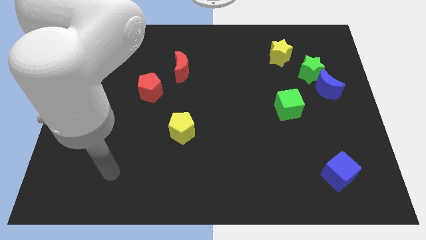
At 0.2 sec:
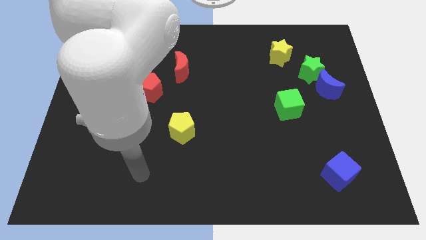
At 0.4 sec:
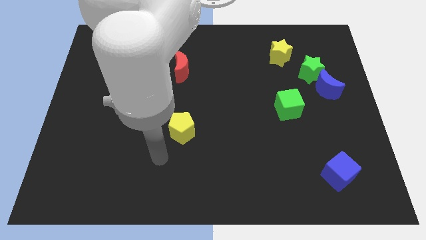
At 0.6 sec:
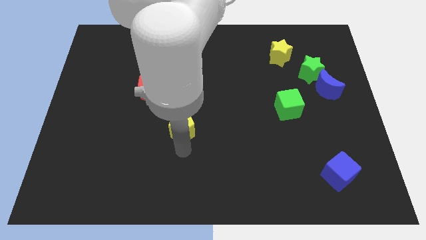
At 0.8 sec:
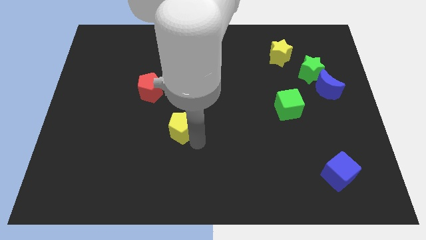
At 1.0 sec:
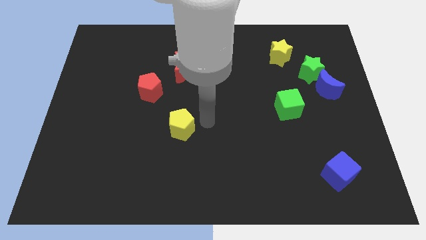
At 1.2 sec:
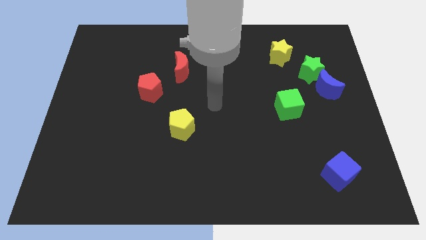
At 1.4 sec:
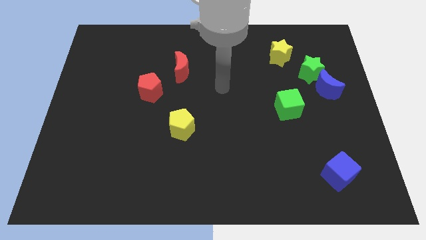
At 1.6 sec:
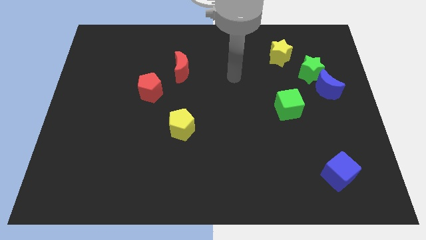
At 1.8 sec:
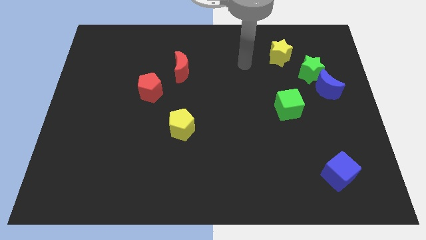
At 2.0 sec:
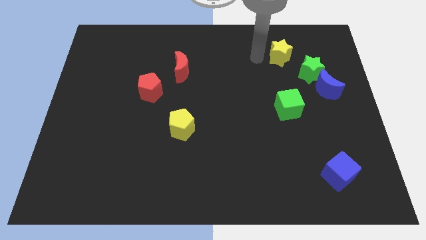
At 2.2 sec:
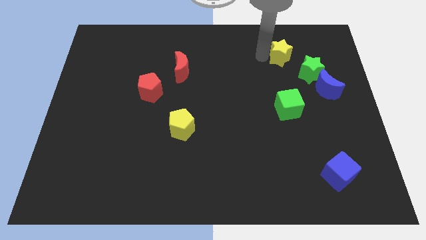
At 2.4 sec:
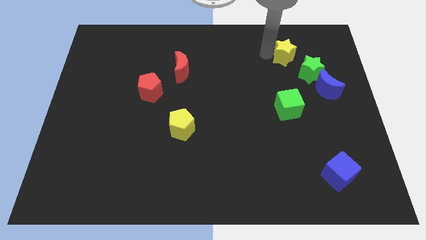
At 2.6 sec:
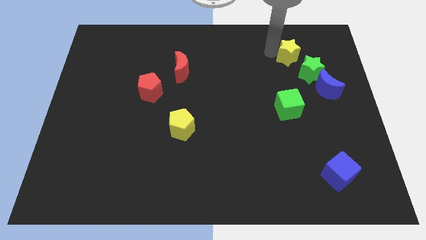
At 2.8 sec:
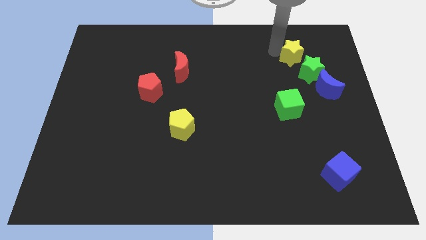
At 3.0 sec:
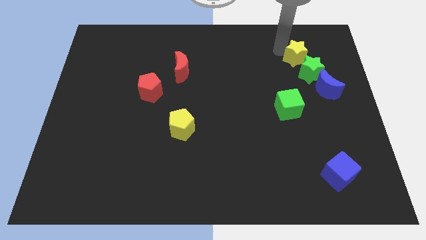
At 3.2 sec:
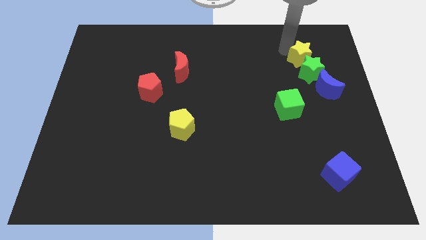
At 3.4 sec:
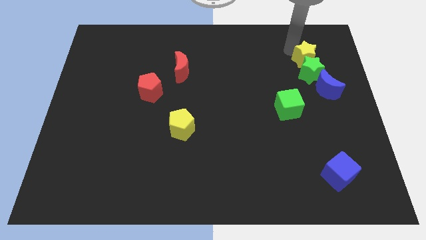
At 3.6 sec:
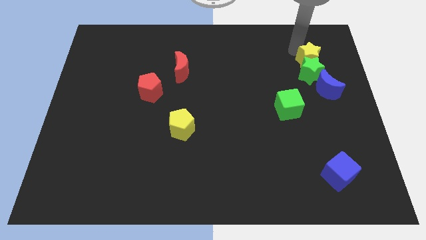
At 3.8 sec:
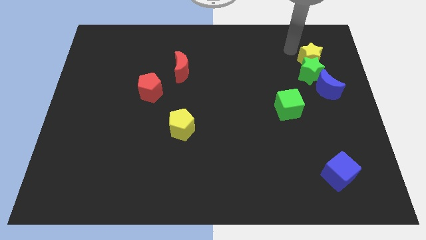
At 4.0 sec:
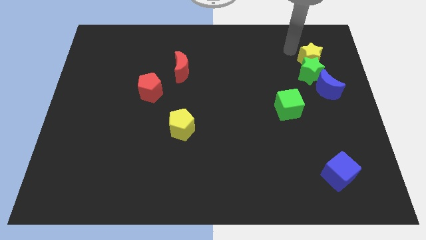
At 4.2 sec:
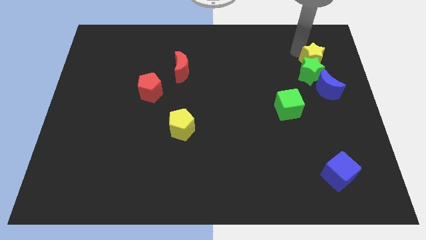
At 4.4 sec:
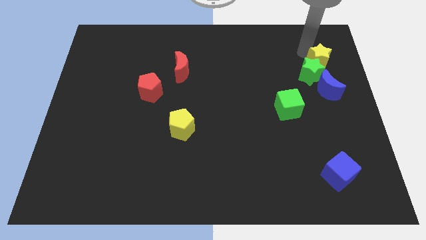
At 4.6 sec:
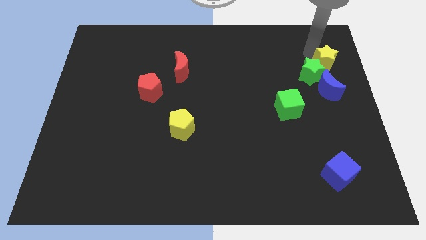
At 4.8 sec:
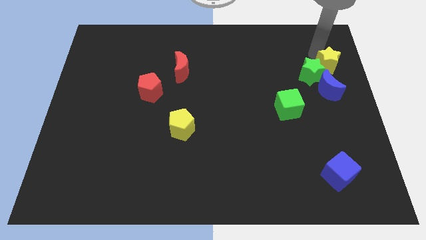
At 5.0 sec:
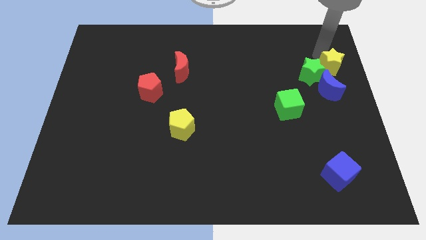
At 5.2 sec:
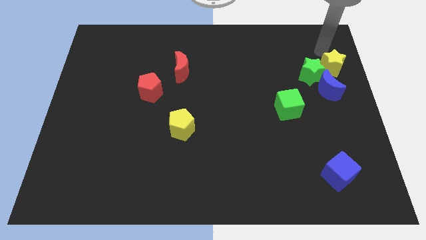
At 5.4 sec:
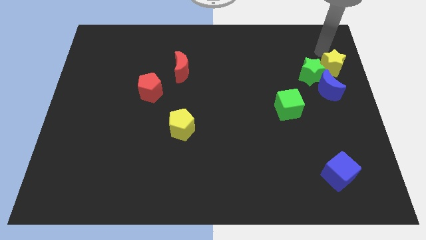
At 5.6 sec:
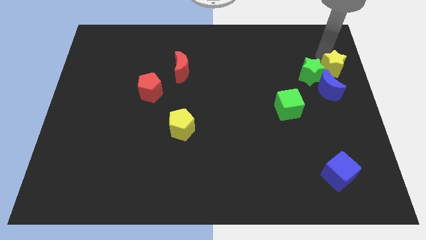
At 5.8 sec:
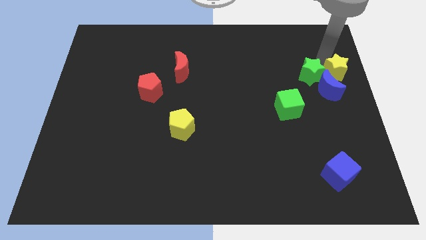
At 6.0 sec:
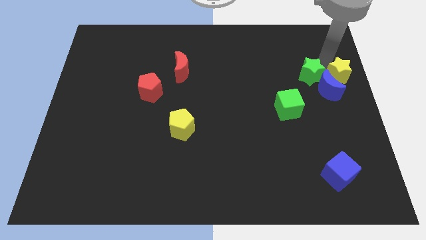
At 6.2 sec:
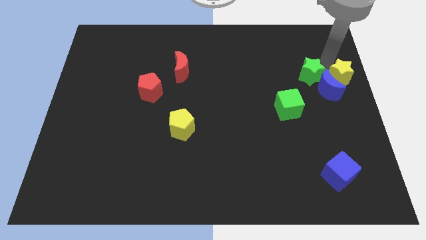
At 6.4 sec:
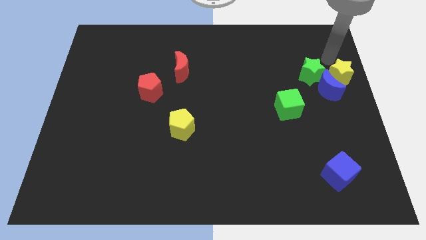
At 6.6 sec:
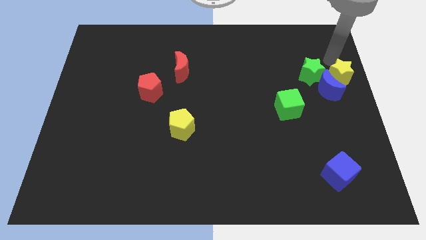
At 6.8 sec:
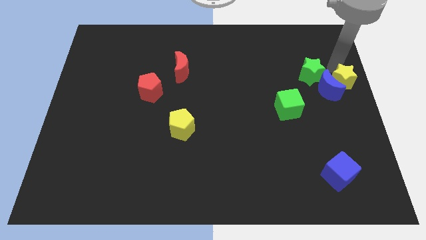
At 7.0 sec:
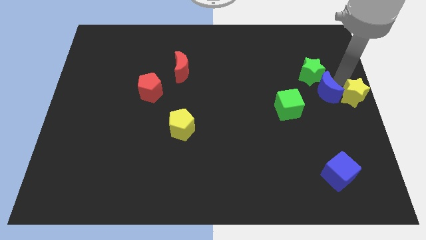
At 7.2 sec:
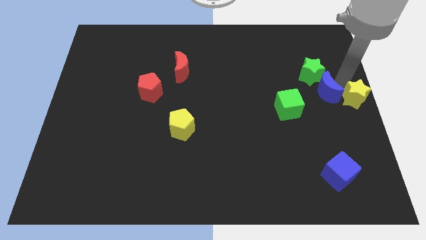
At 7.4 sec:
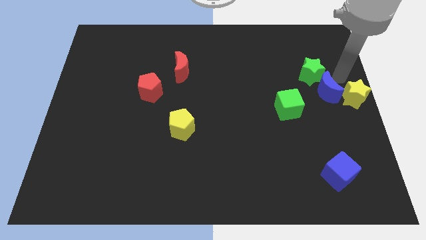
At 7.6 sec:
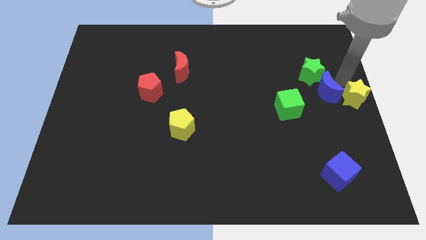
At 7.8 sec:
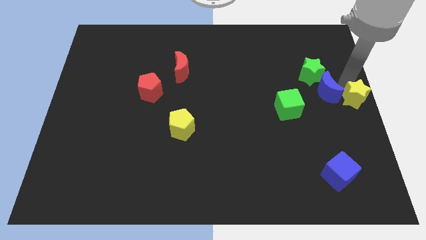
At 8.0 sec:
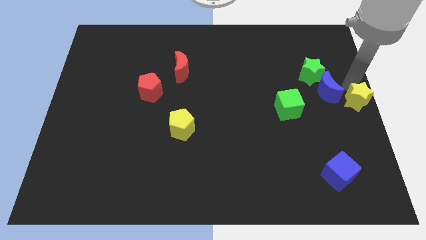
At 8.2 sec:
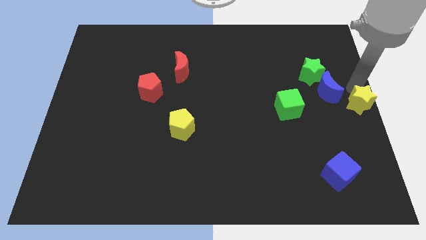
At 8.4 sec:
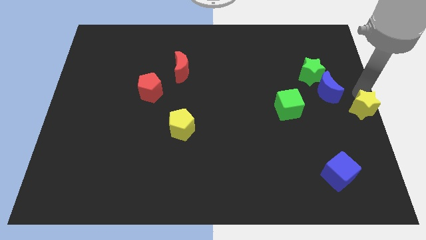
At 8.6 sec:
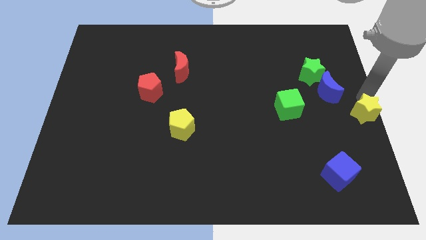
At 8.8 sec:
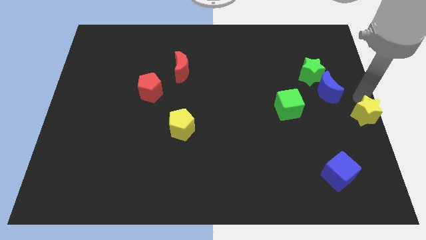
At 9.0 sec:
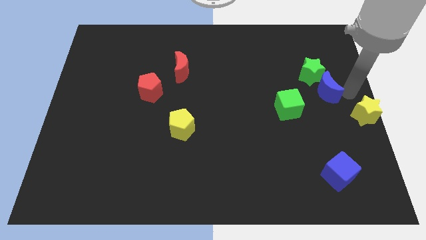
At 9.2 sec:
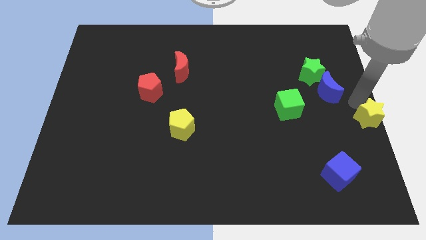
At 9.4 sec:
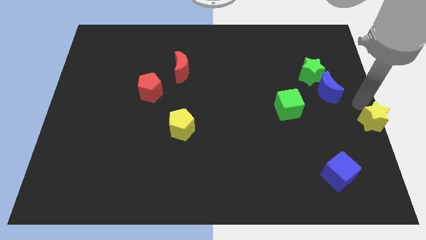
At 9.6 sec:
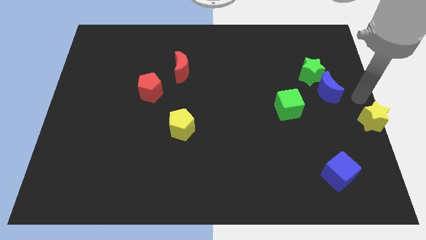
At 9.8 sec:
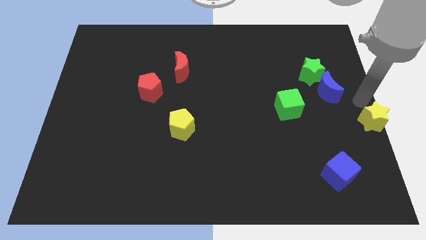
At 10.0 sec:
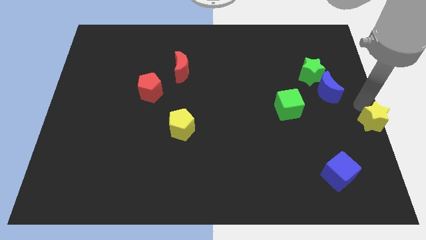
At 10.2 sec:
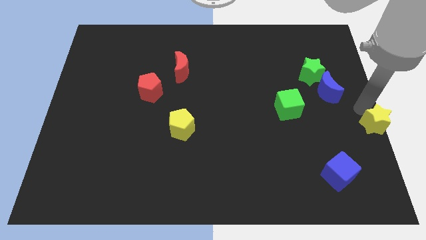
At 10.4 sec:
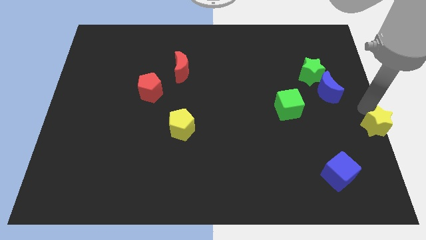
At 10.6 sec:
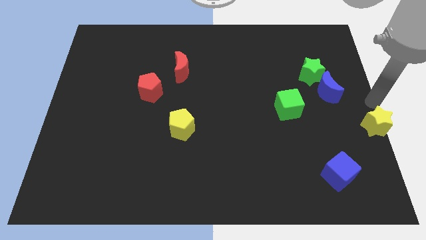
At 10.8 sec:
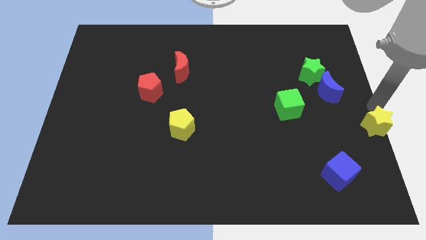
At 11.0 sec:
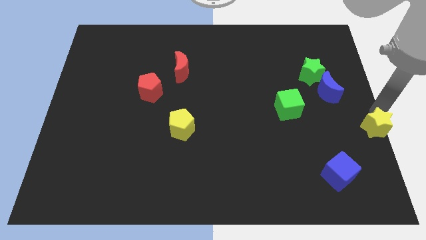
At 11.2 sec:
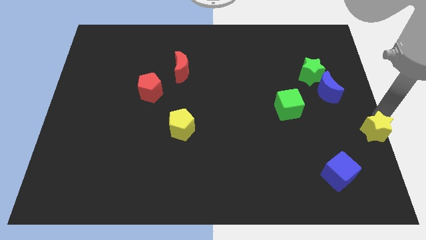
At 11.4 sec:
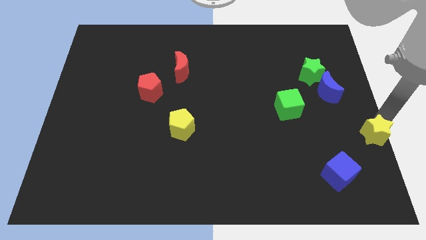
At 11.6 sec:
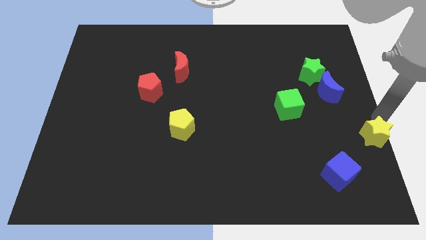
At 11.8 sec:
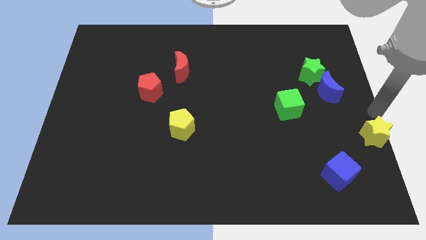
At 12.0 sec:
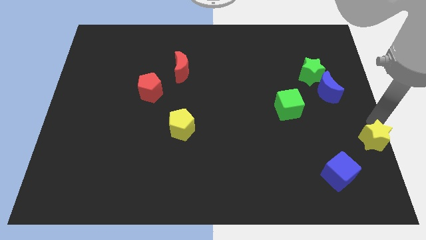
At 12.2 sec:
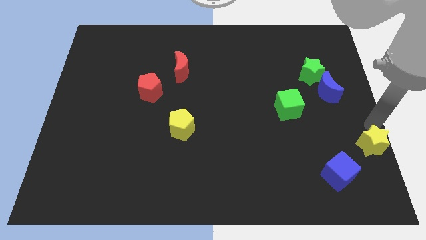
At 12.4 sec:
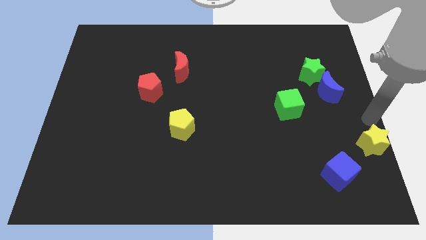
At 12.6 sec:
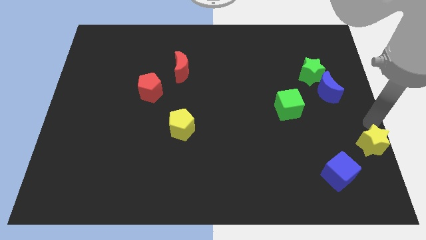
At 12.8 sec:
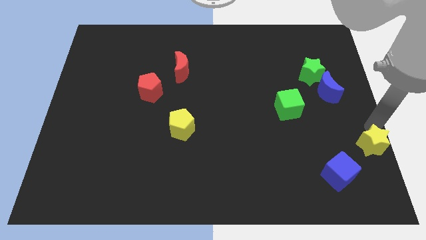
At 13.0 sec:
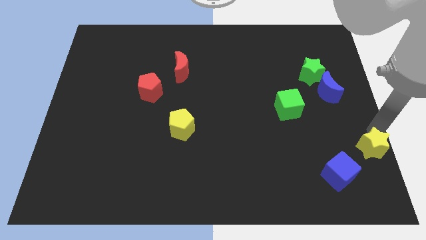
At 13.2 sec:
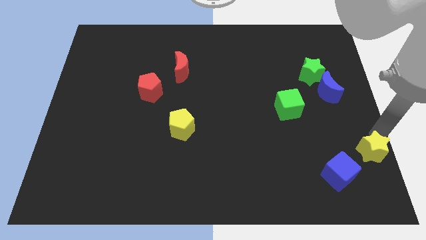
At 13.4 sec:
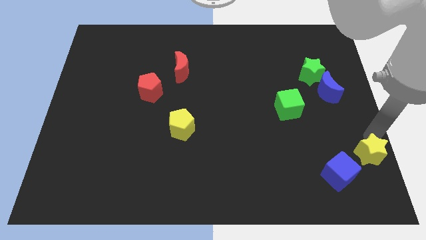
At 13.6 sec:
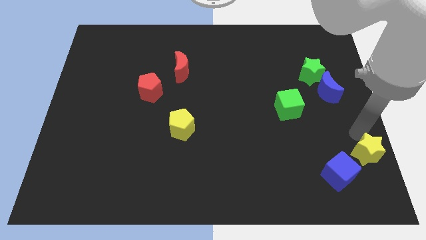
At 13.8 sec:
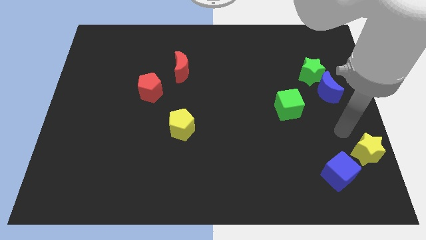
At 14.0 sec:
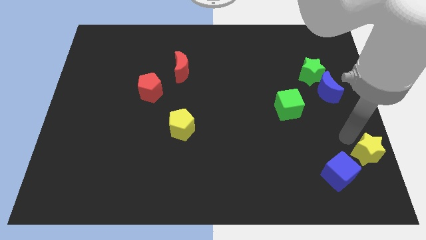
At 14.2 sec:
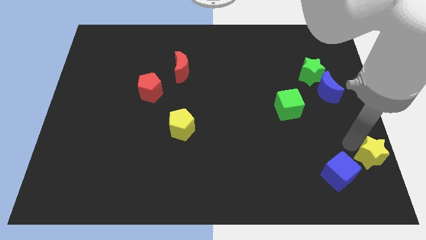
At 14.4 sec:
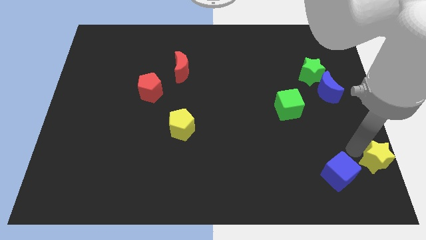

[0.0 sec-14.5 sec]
put the yellow star to the bottom right of the board
